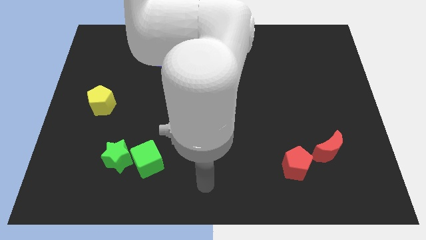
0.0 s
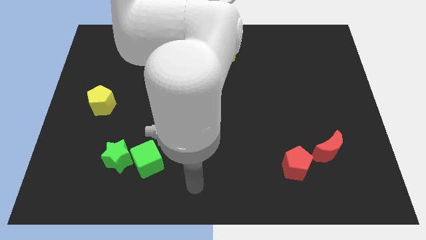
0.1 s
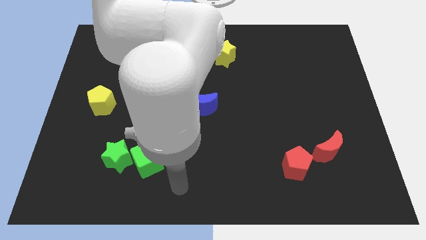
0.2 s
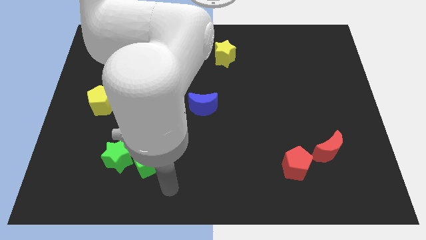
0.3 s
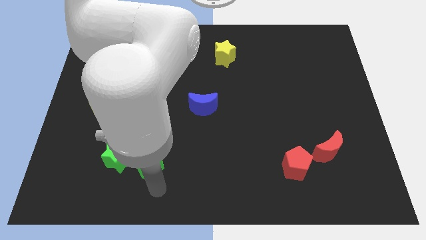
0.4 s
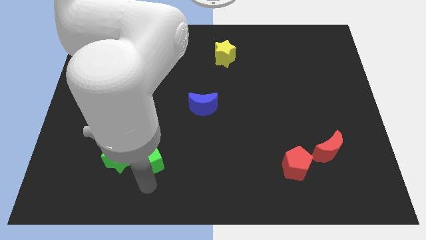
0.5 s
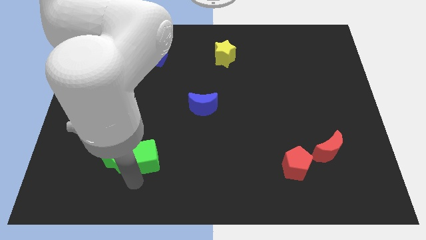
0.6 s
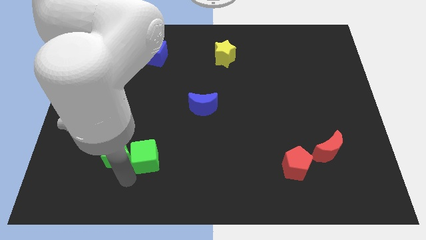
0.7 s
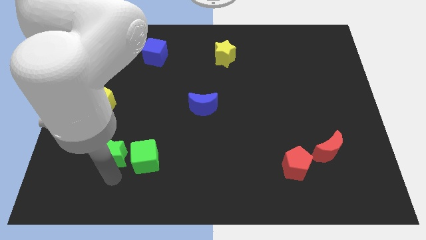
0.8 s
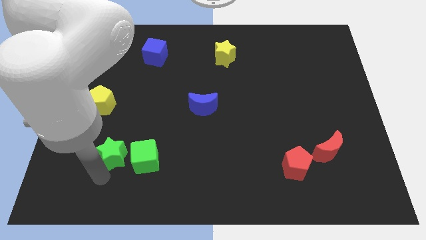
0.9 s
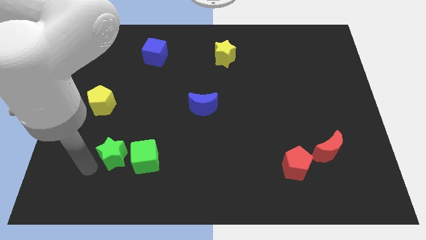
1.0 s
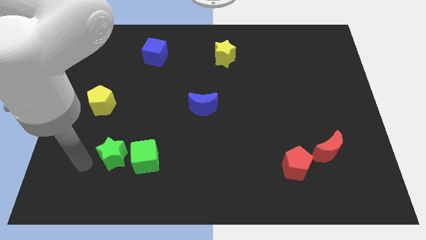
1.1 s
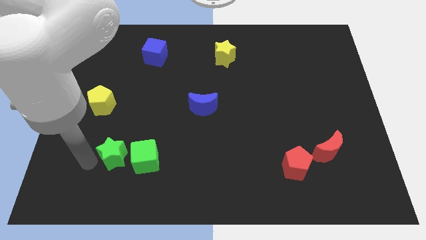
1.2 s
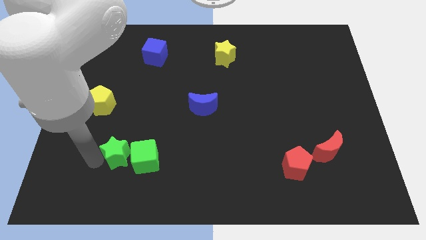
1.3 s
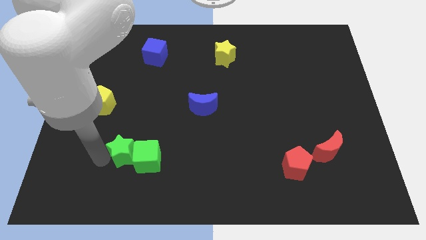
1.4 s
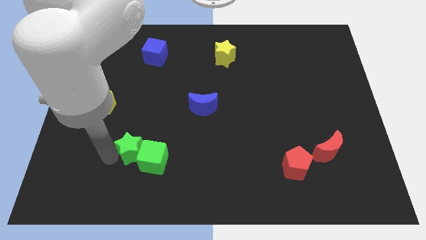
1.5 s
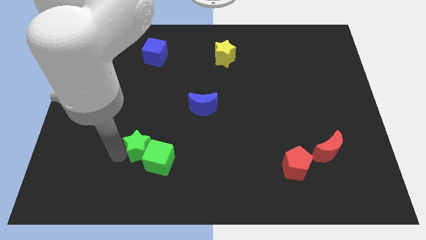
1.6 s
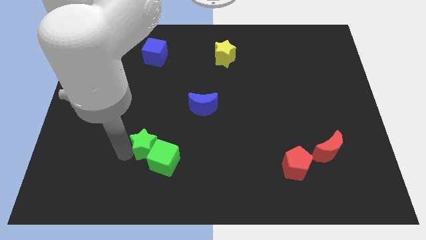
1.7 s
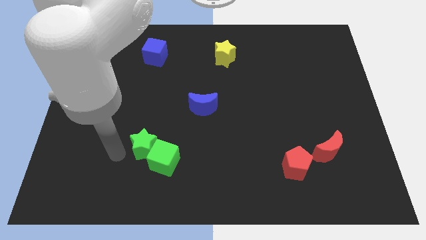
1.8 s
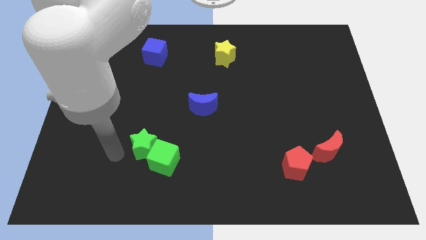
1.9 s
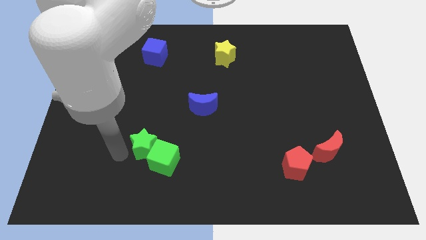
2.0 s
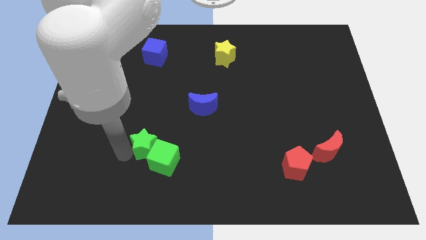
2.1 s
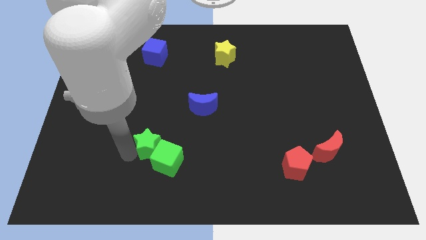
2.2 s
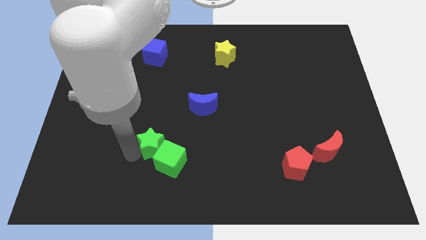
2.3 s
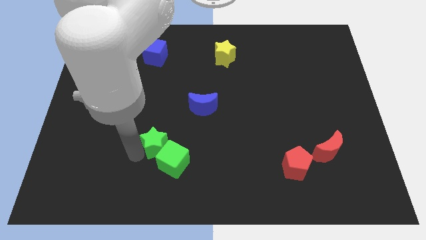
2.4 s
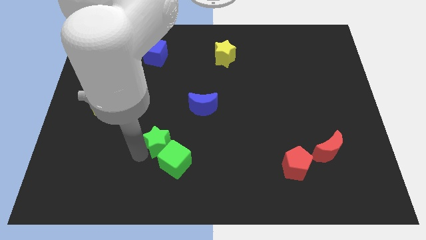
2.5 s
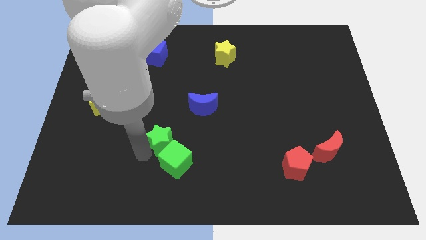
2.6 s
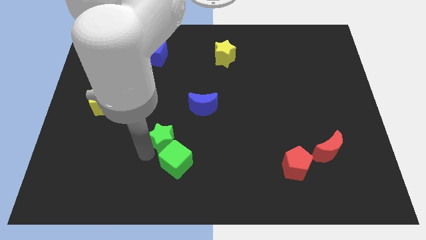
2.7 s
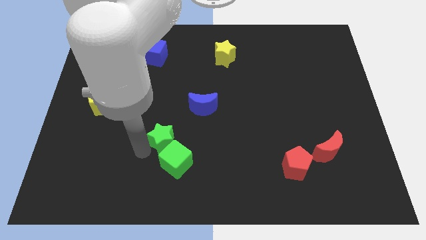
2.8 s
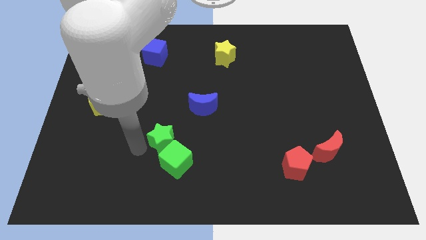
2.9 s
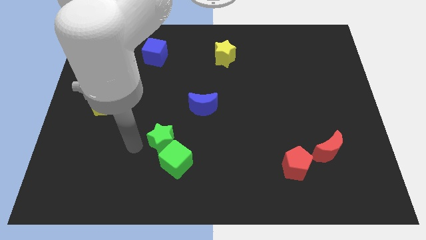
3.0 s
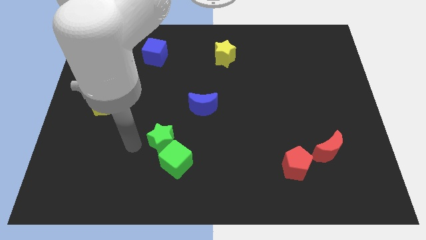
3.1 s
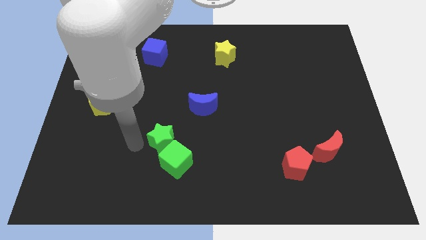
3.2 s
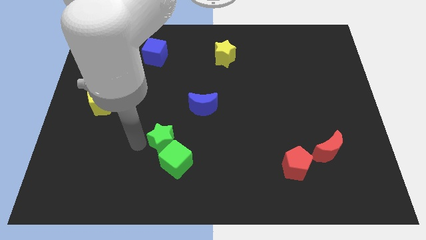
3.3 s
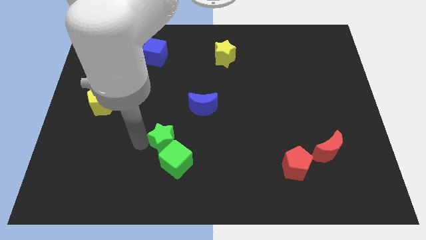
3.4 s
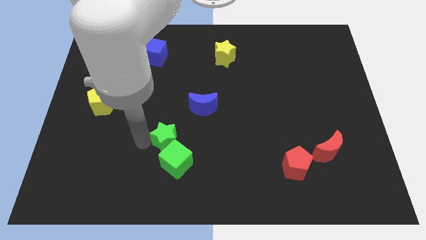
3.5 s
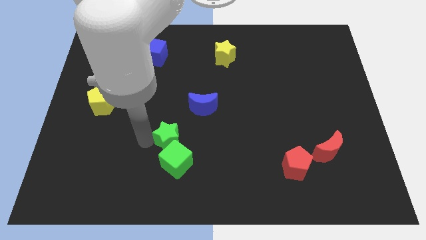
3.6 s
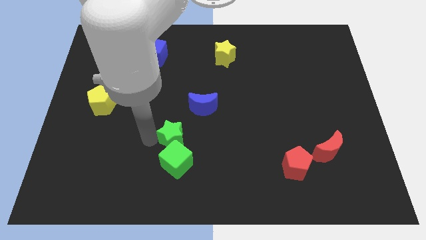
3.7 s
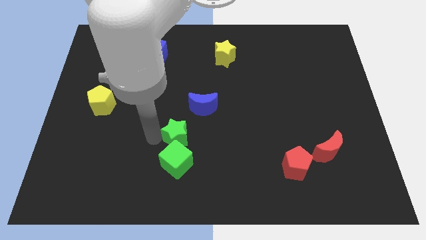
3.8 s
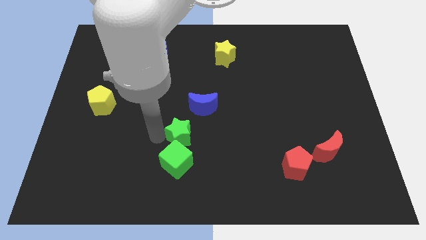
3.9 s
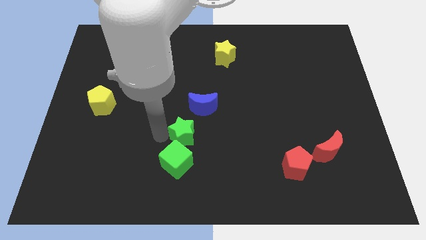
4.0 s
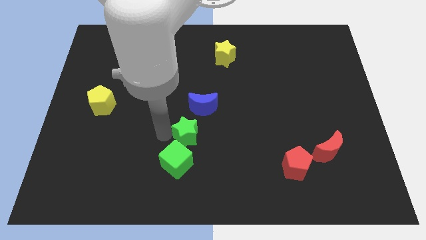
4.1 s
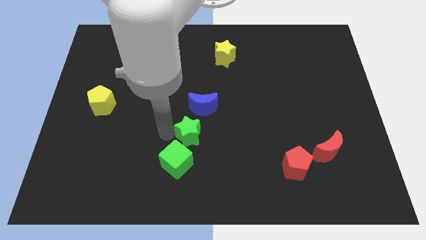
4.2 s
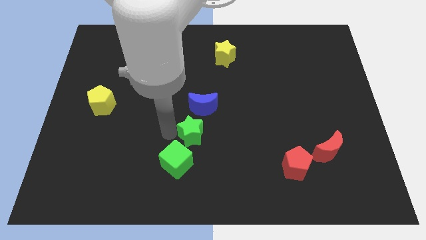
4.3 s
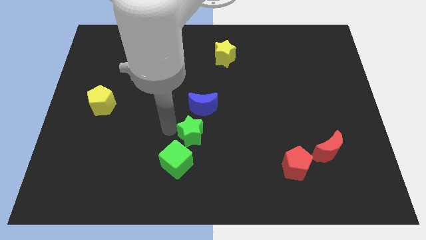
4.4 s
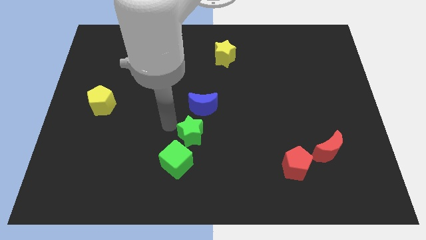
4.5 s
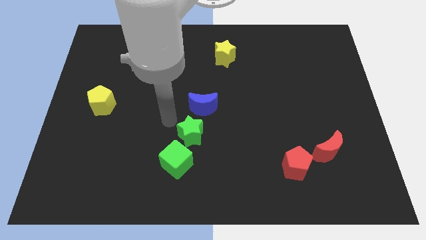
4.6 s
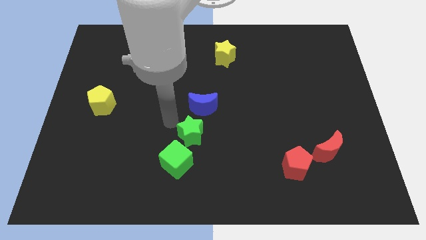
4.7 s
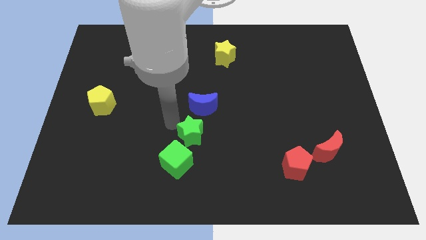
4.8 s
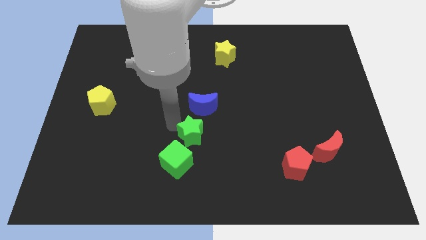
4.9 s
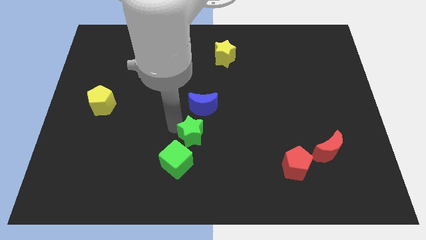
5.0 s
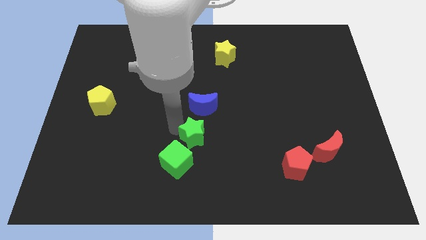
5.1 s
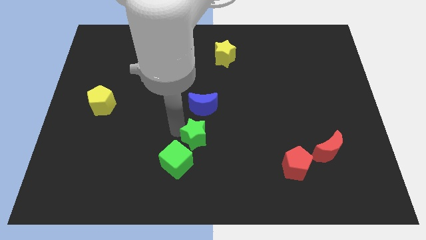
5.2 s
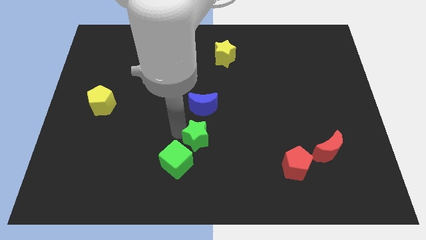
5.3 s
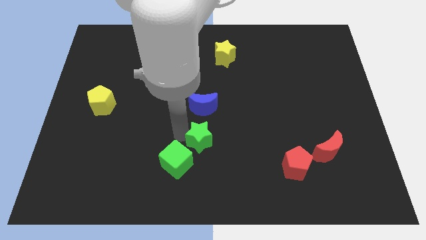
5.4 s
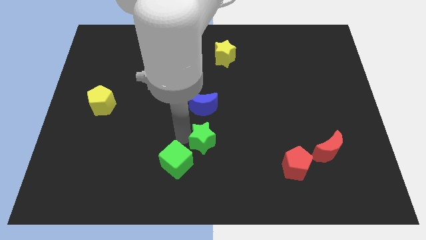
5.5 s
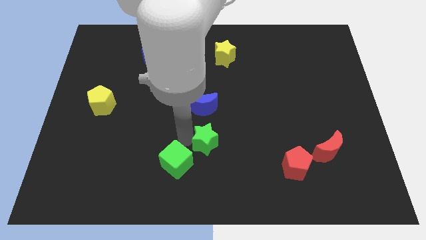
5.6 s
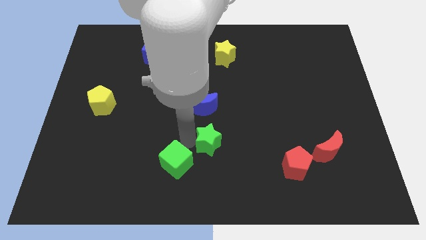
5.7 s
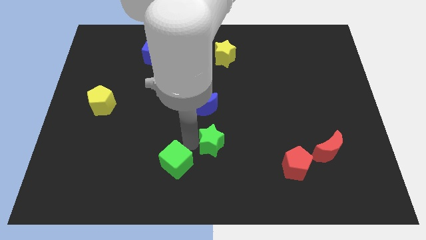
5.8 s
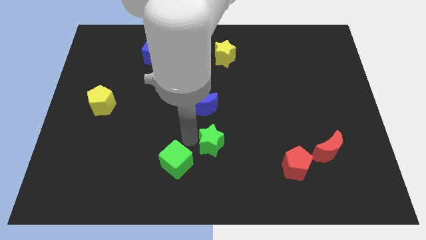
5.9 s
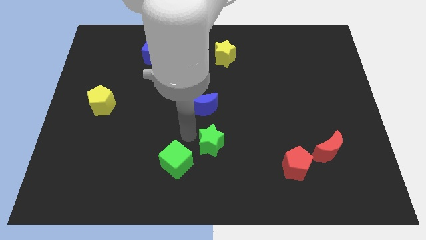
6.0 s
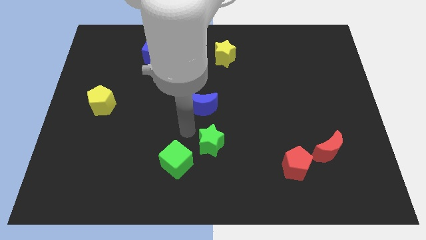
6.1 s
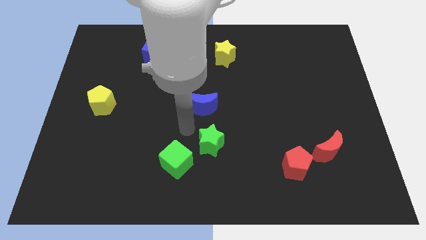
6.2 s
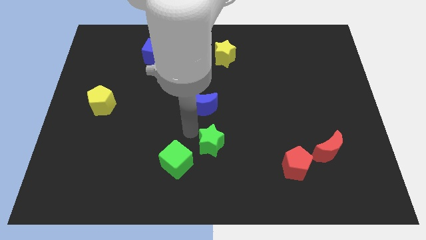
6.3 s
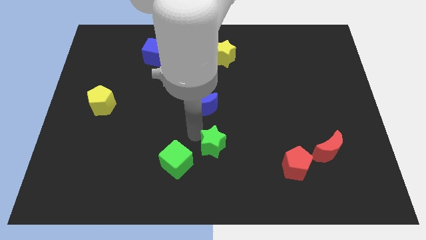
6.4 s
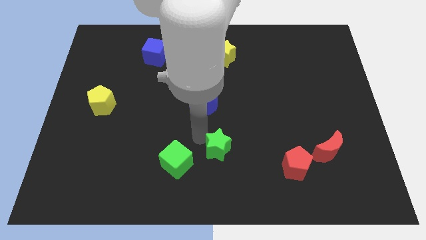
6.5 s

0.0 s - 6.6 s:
move the green star to the right

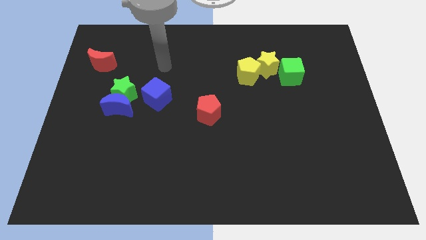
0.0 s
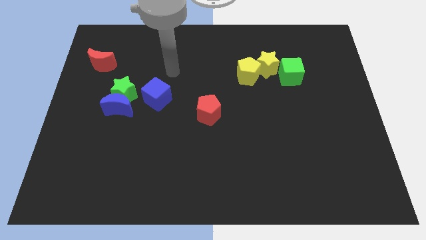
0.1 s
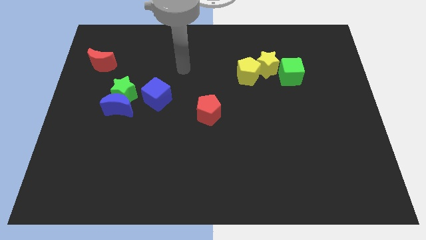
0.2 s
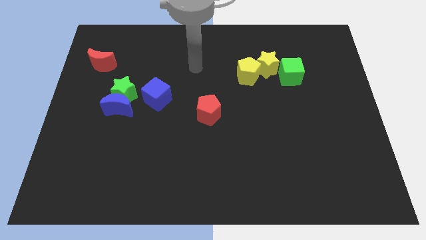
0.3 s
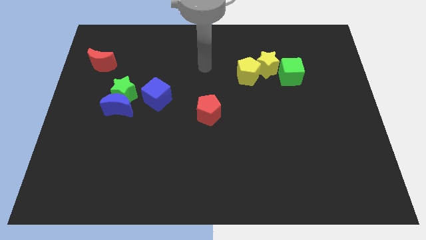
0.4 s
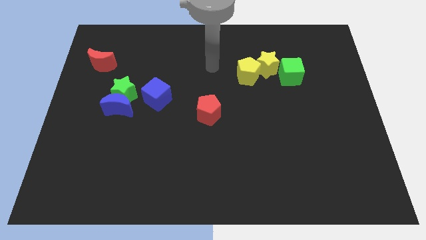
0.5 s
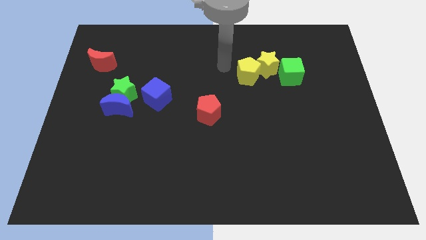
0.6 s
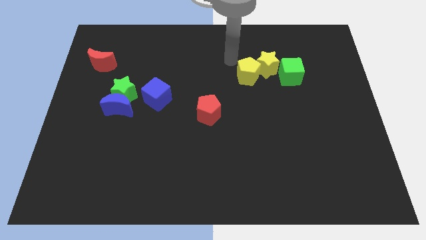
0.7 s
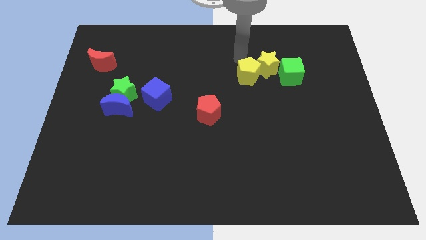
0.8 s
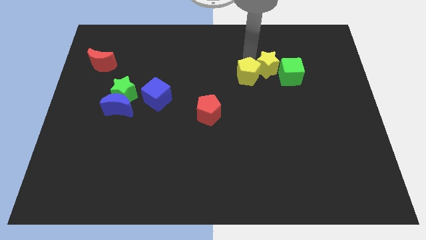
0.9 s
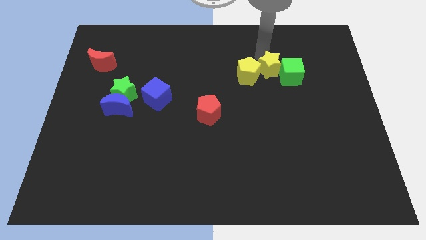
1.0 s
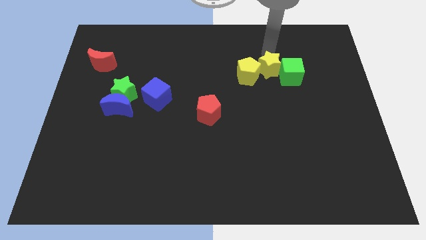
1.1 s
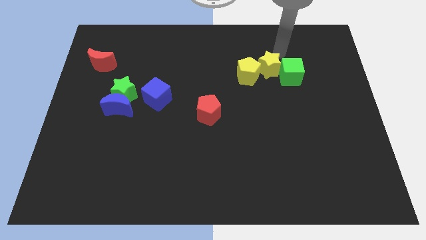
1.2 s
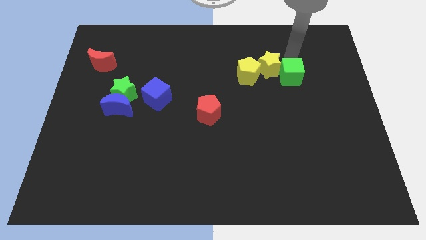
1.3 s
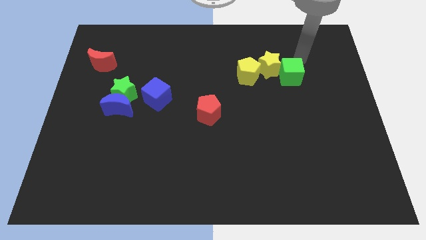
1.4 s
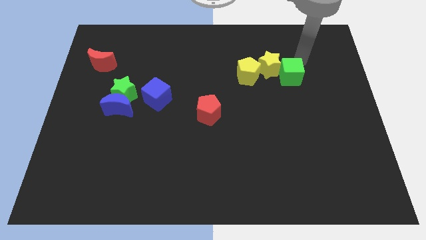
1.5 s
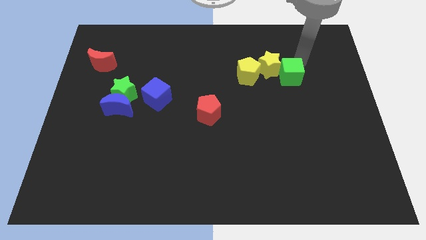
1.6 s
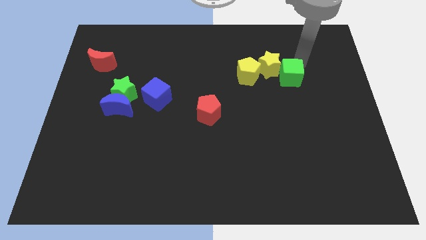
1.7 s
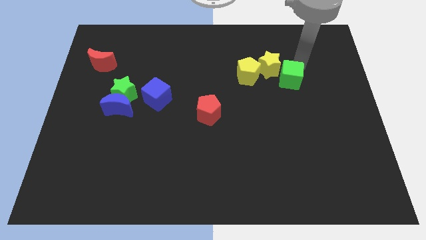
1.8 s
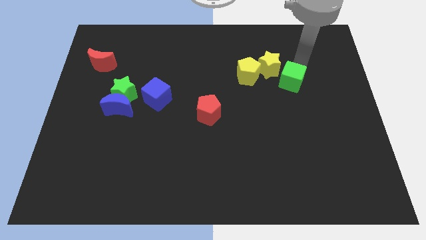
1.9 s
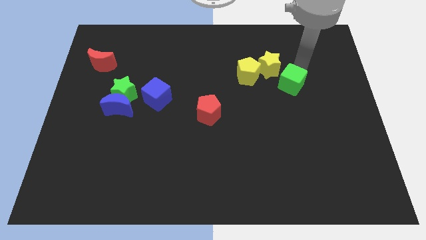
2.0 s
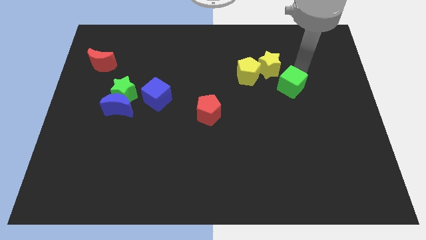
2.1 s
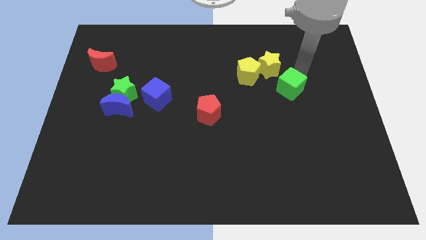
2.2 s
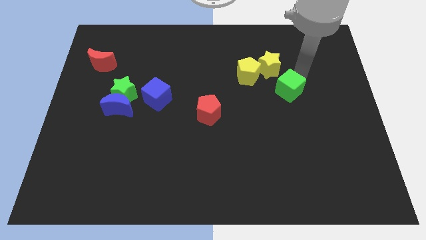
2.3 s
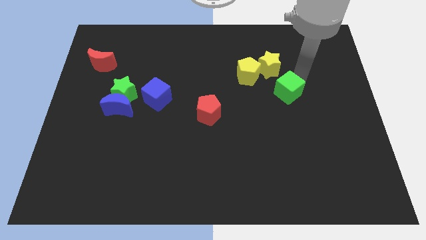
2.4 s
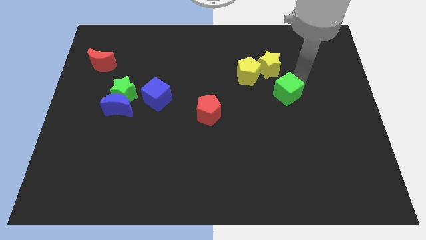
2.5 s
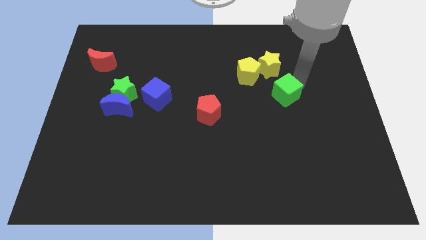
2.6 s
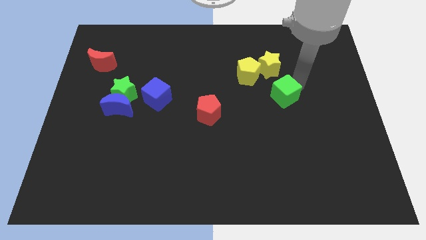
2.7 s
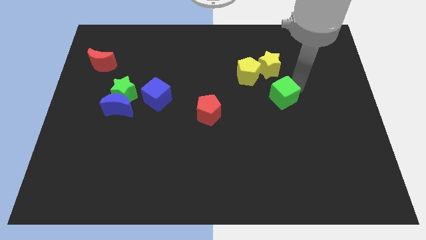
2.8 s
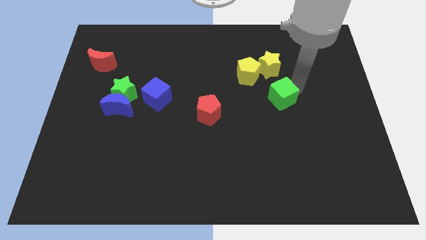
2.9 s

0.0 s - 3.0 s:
push the green cube down and then left a little
